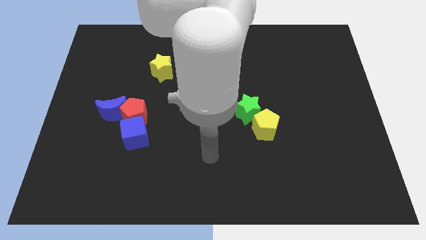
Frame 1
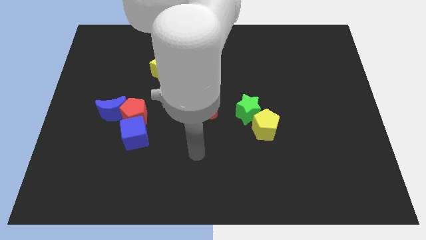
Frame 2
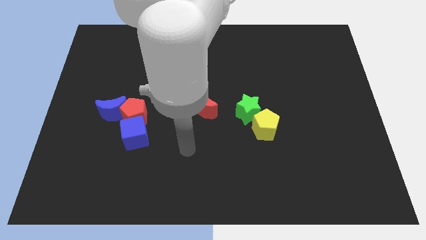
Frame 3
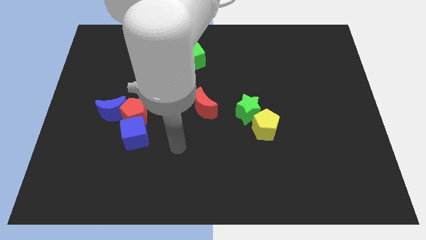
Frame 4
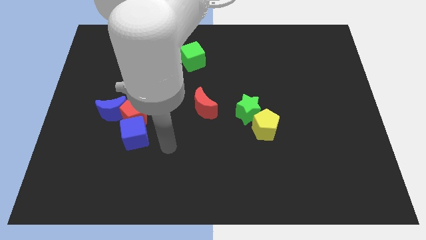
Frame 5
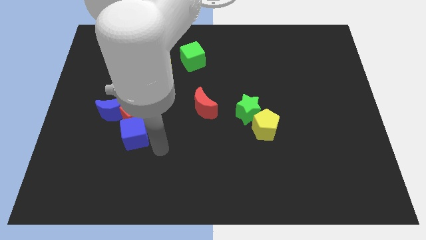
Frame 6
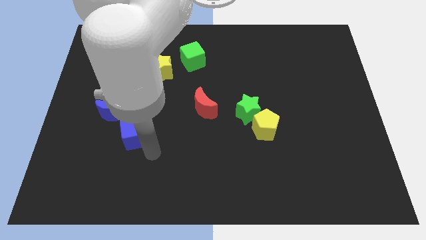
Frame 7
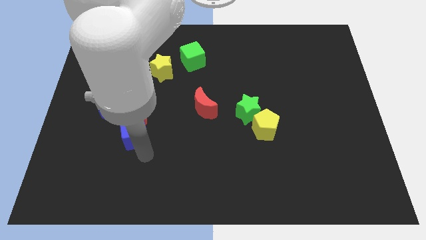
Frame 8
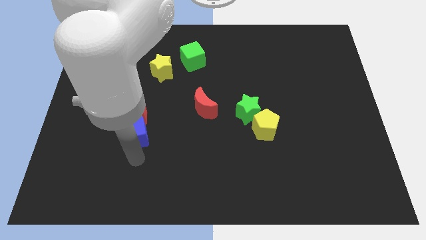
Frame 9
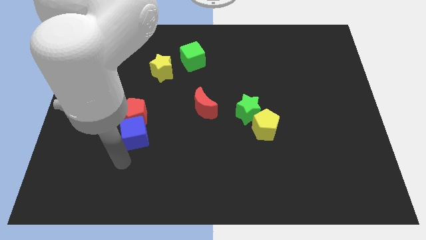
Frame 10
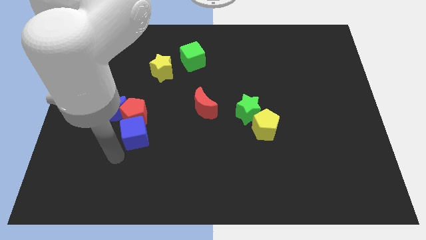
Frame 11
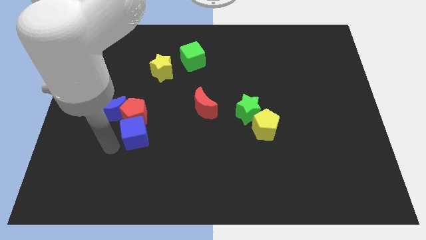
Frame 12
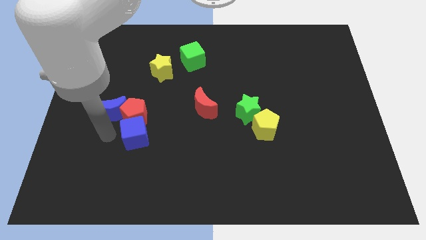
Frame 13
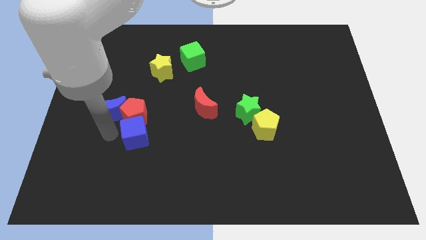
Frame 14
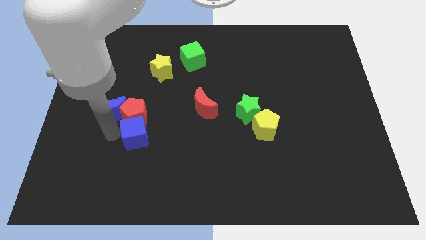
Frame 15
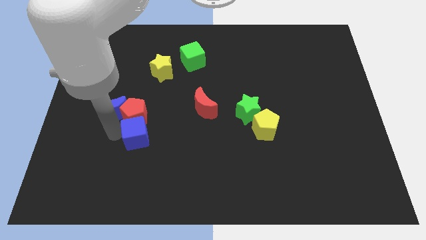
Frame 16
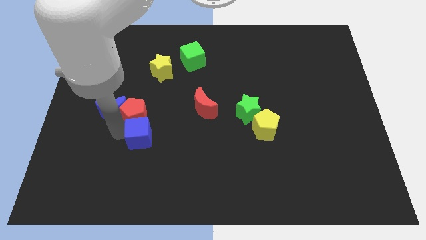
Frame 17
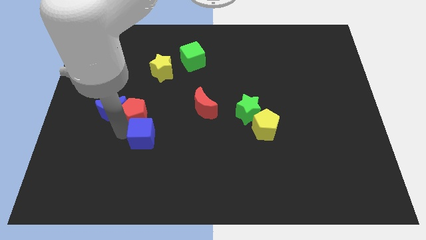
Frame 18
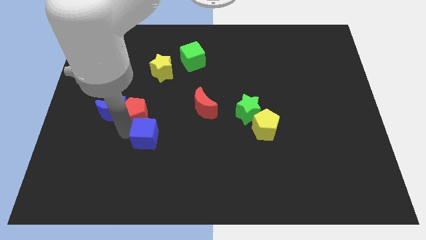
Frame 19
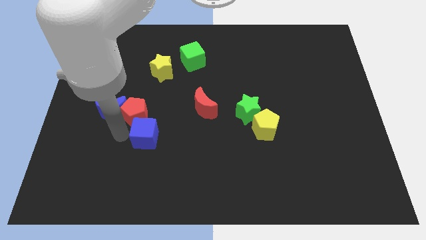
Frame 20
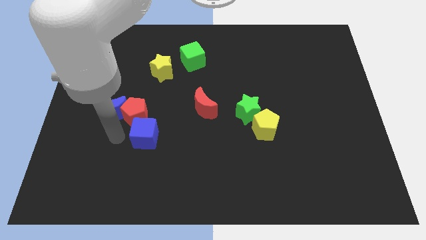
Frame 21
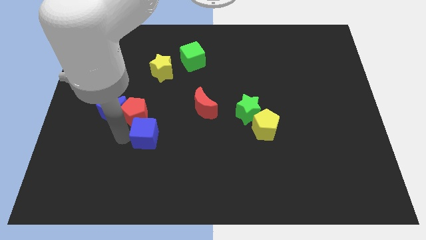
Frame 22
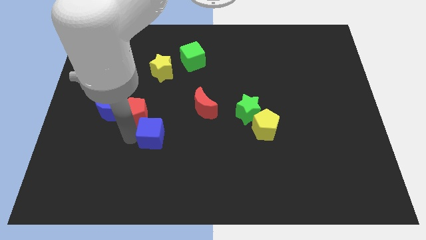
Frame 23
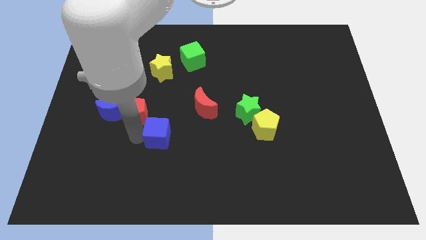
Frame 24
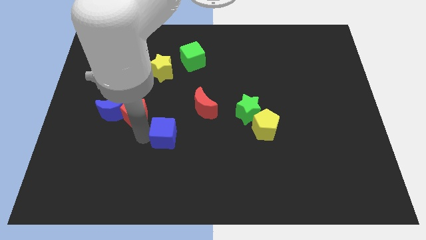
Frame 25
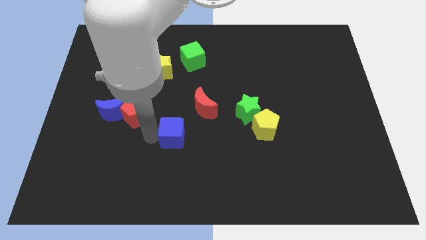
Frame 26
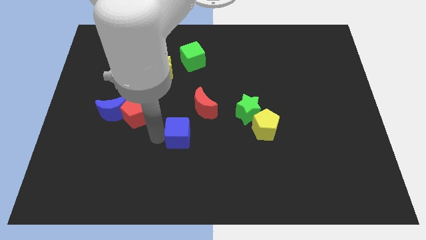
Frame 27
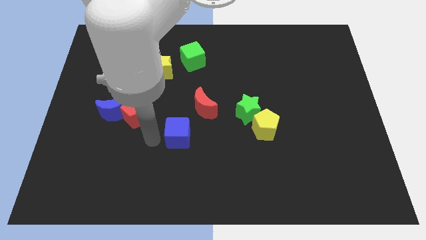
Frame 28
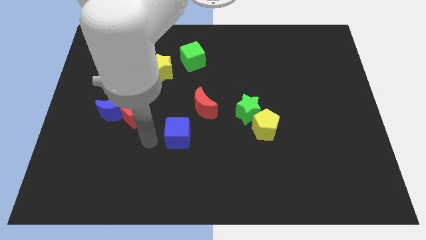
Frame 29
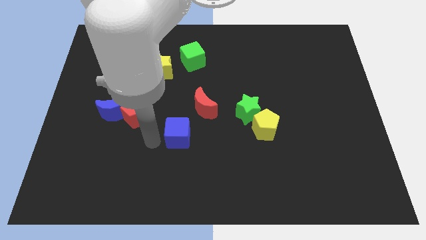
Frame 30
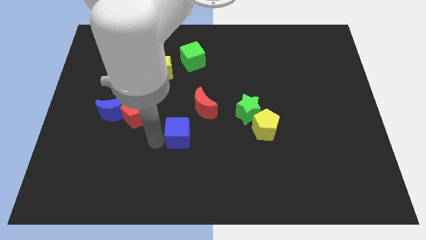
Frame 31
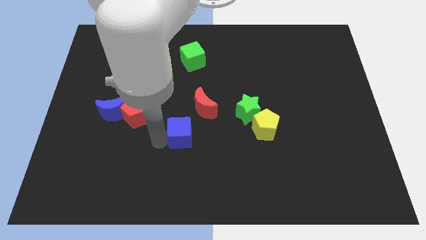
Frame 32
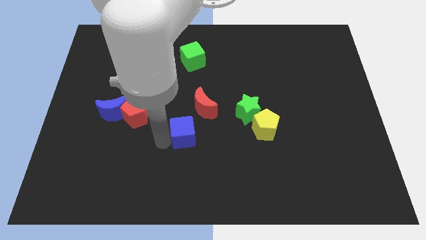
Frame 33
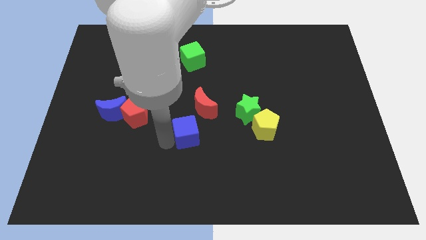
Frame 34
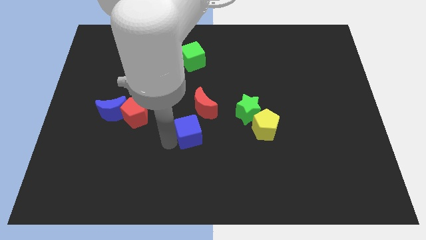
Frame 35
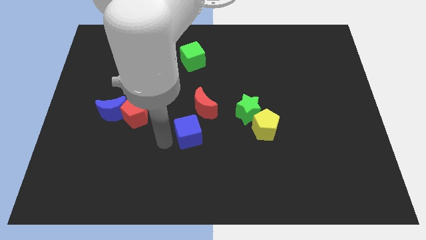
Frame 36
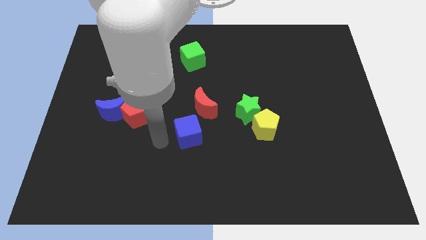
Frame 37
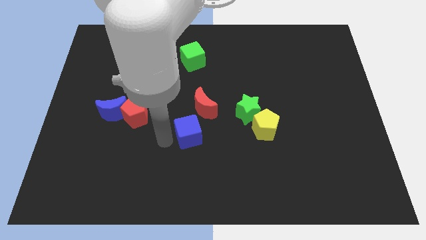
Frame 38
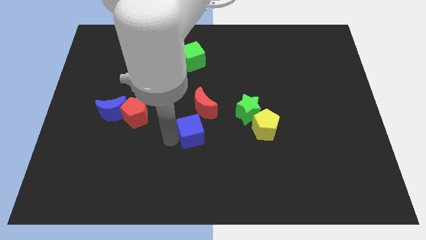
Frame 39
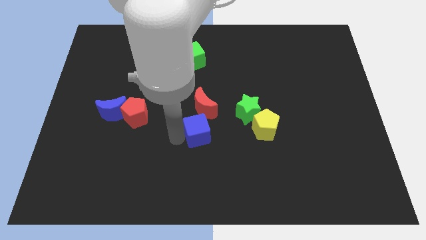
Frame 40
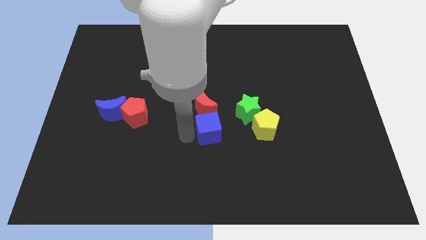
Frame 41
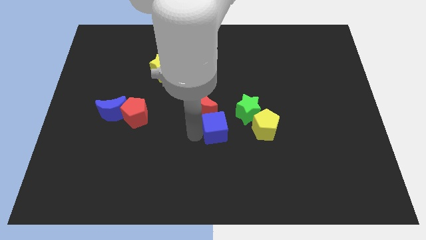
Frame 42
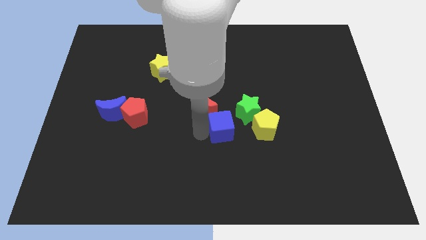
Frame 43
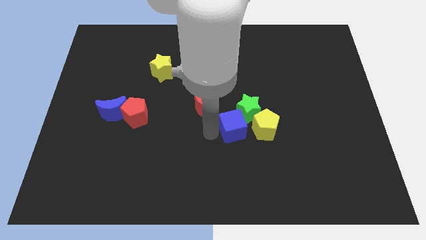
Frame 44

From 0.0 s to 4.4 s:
put the blue cube next to the green star

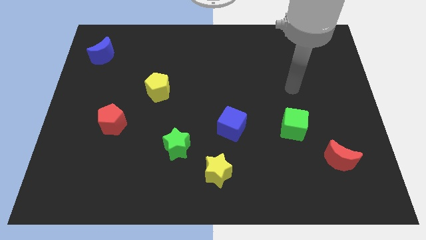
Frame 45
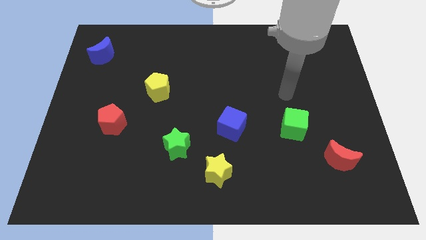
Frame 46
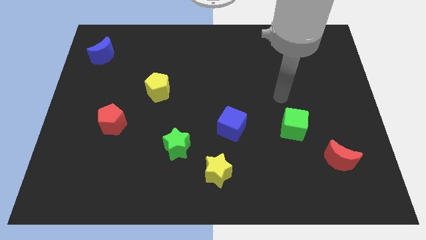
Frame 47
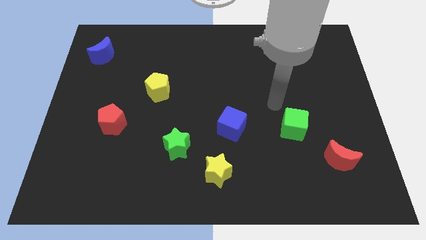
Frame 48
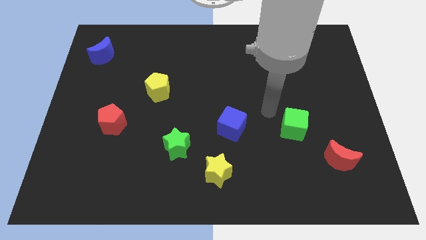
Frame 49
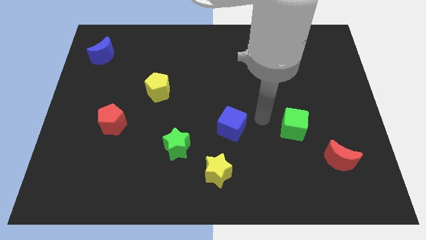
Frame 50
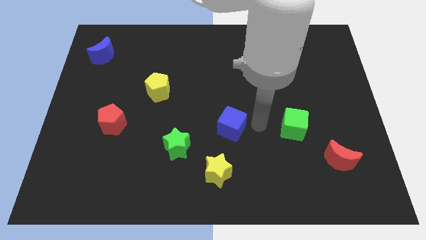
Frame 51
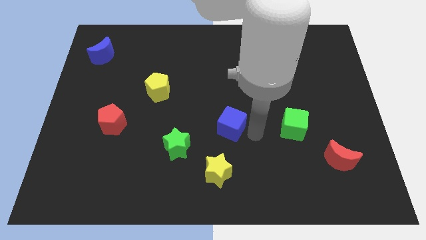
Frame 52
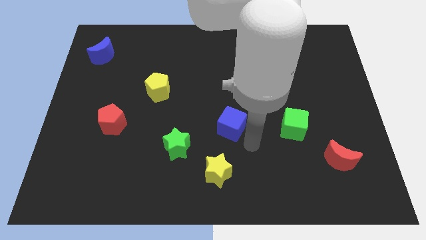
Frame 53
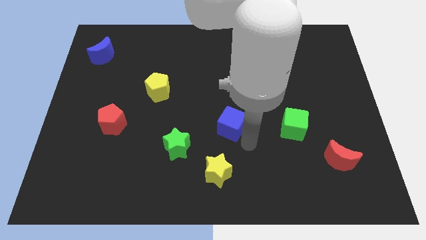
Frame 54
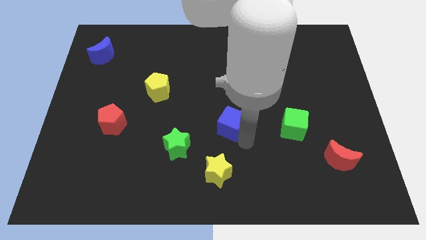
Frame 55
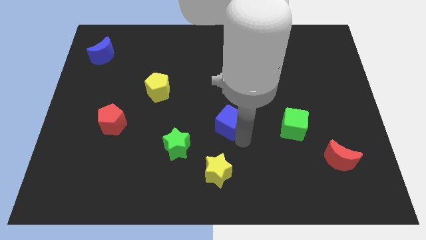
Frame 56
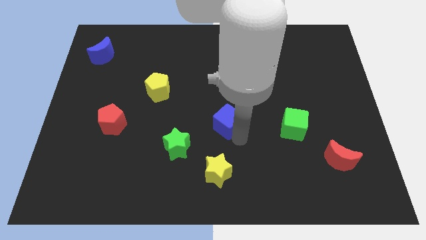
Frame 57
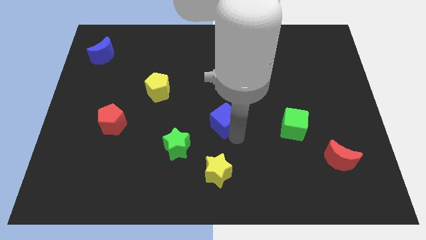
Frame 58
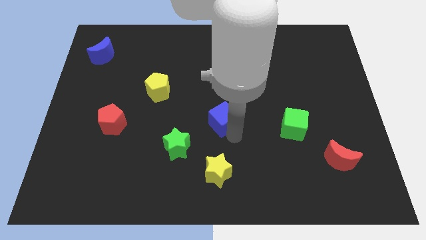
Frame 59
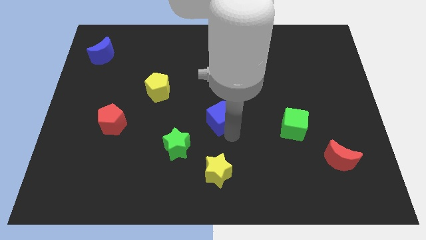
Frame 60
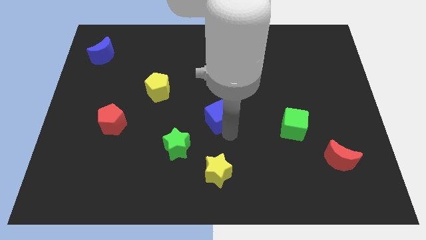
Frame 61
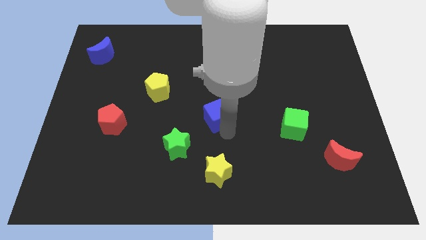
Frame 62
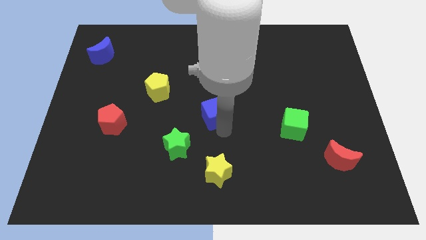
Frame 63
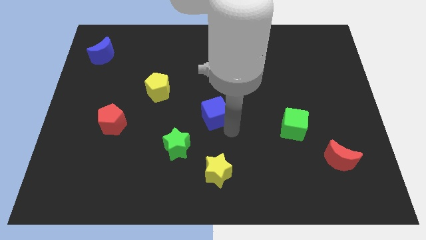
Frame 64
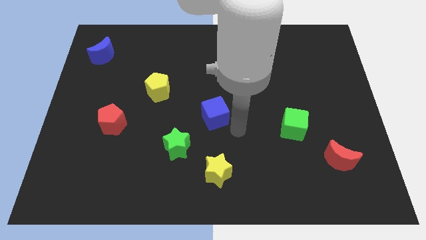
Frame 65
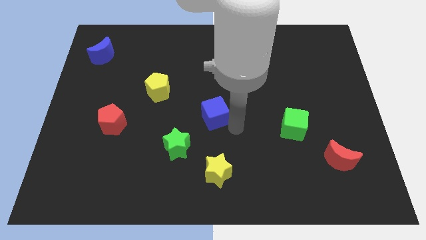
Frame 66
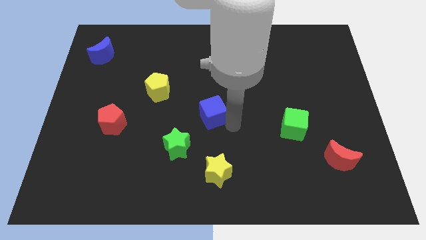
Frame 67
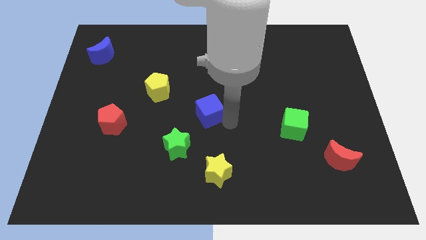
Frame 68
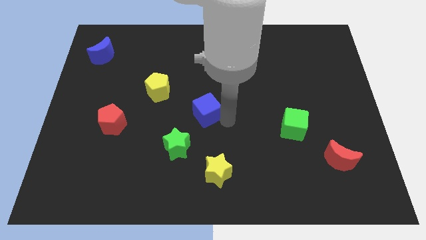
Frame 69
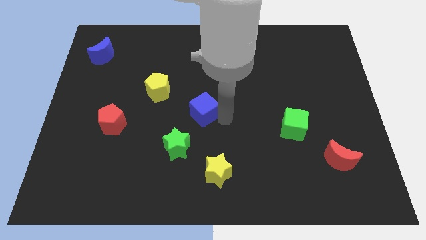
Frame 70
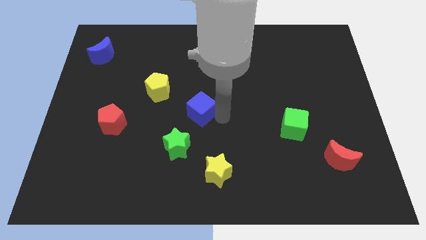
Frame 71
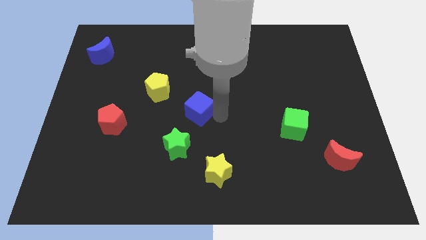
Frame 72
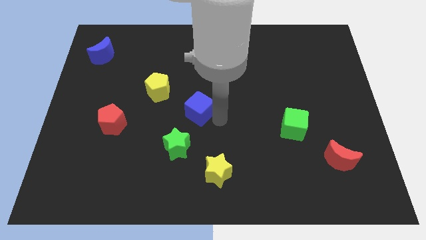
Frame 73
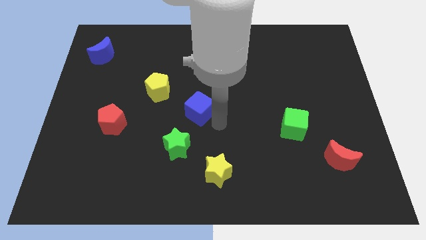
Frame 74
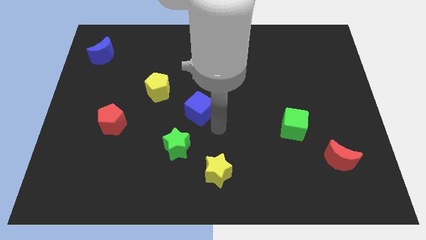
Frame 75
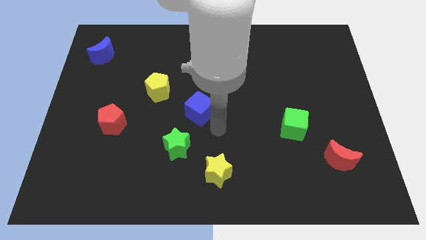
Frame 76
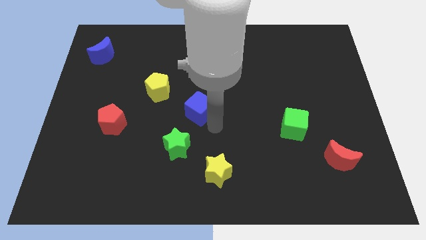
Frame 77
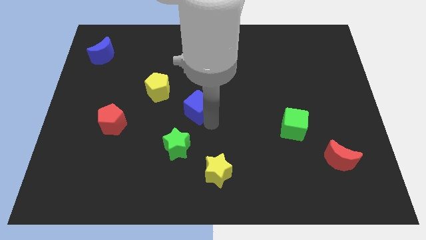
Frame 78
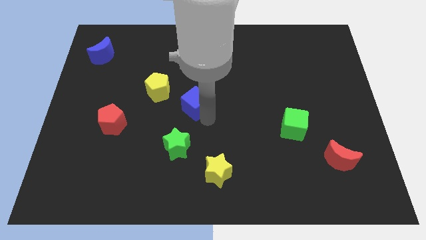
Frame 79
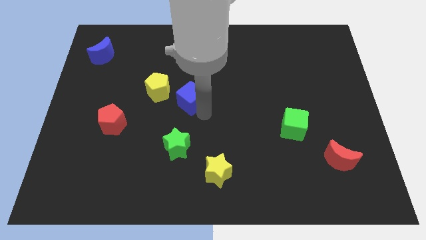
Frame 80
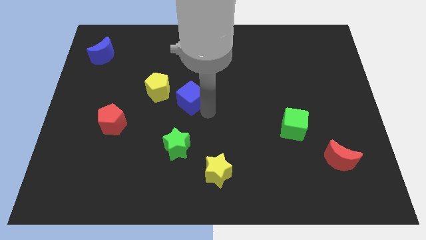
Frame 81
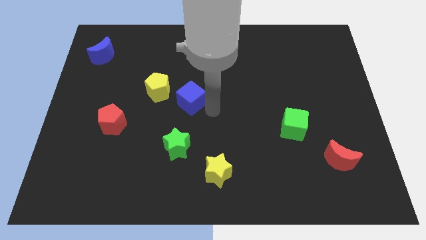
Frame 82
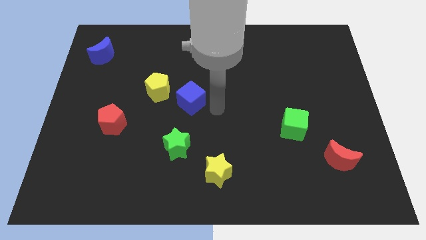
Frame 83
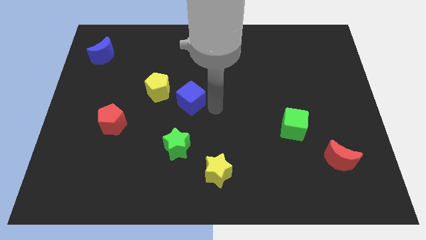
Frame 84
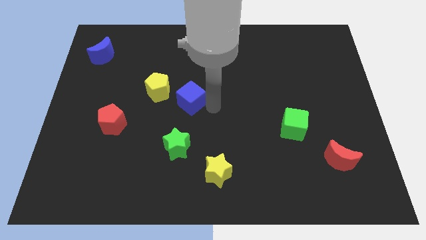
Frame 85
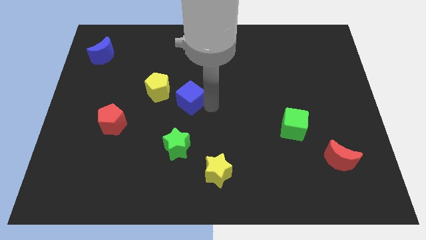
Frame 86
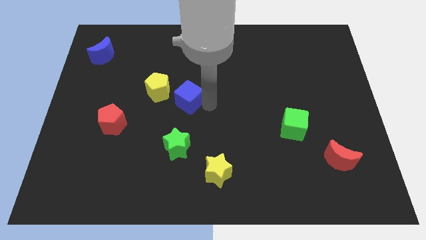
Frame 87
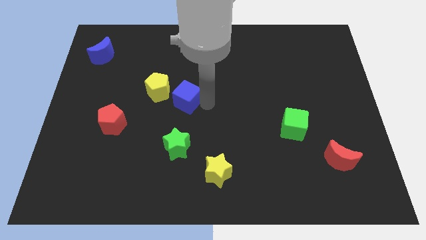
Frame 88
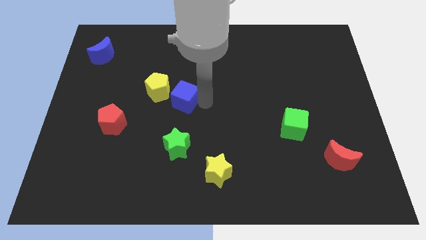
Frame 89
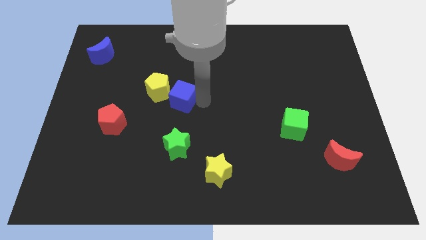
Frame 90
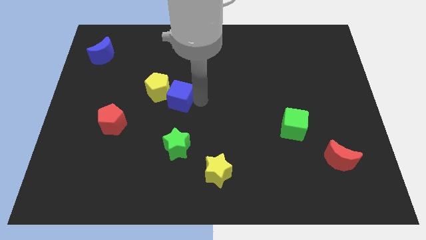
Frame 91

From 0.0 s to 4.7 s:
move the blue cube next to the yellow pentagon
